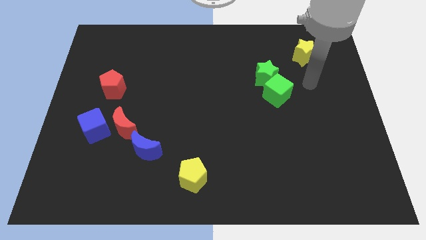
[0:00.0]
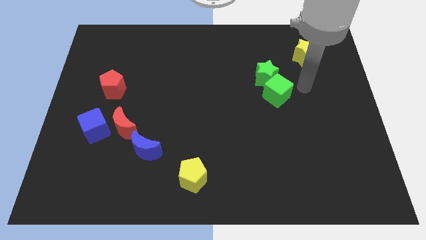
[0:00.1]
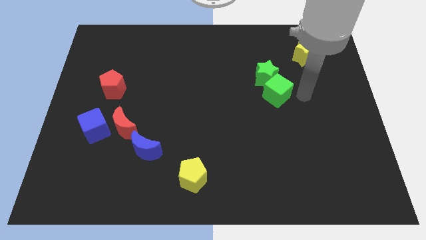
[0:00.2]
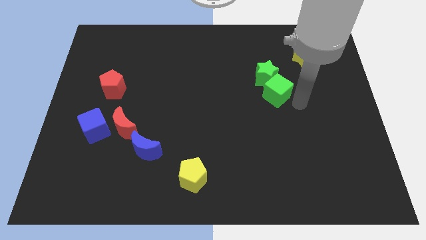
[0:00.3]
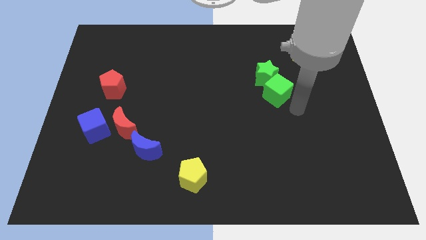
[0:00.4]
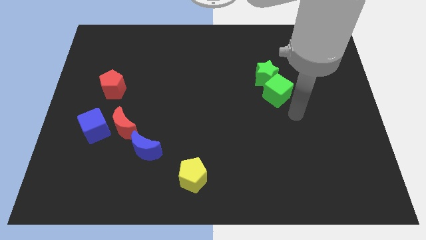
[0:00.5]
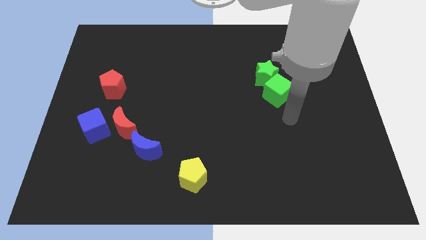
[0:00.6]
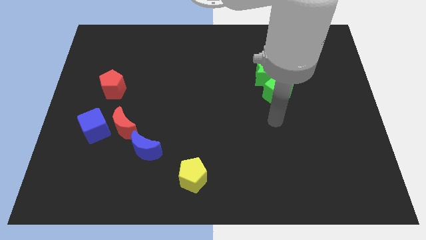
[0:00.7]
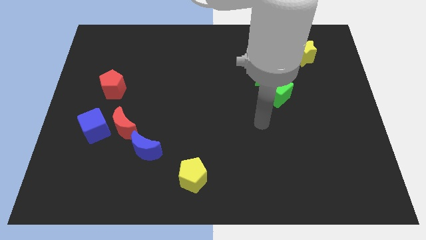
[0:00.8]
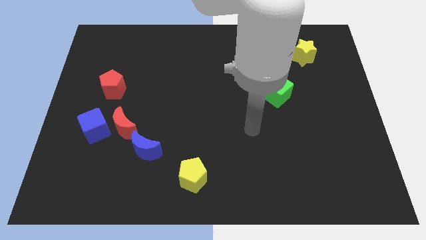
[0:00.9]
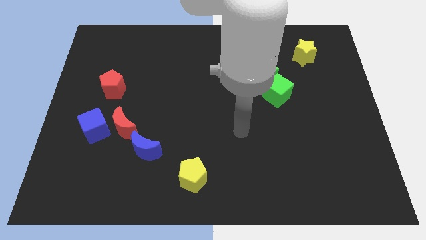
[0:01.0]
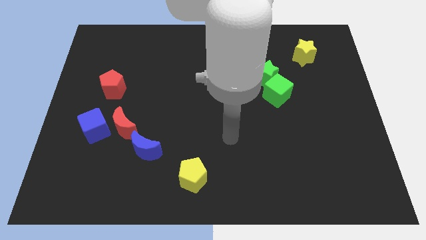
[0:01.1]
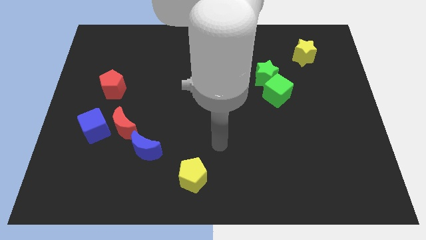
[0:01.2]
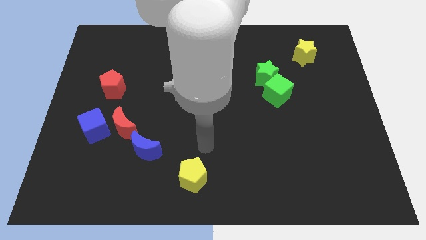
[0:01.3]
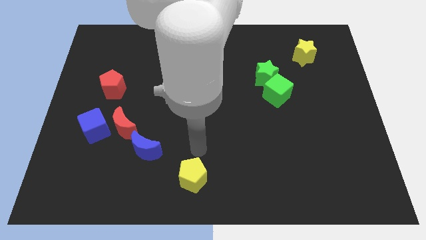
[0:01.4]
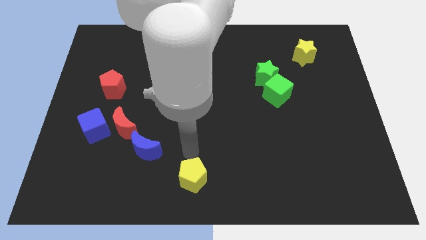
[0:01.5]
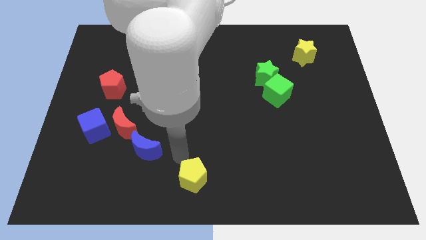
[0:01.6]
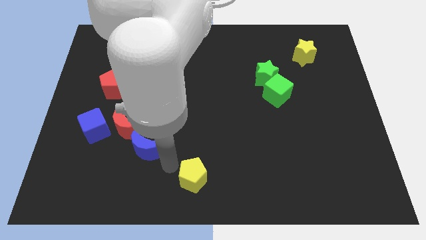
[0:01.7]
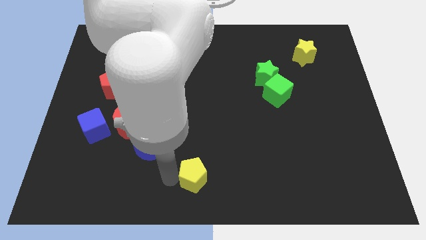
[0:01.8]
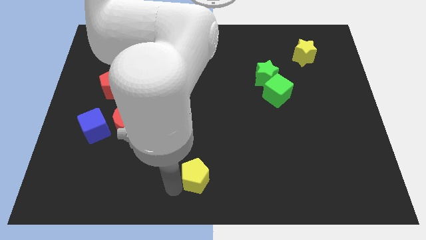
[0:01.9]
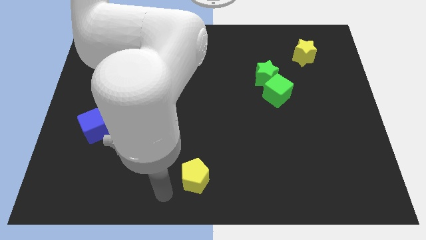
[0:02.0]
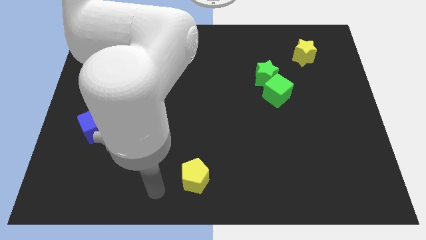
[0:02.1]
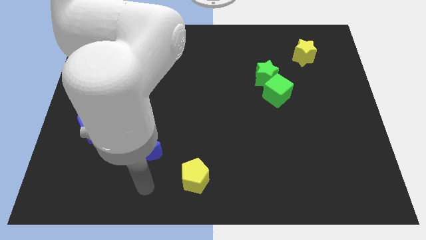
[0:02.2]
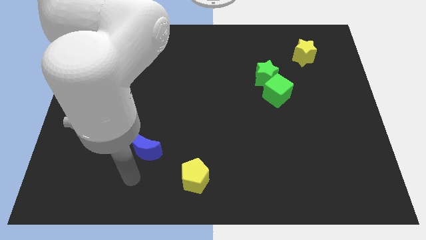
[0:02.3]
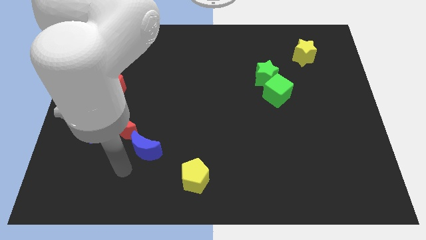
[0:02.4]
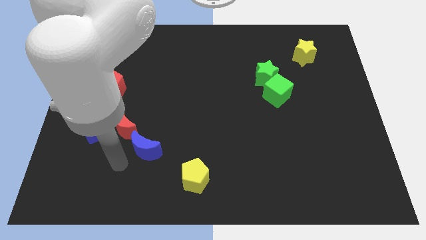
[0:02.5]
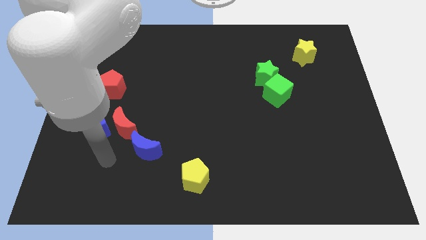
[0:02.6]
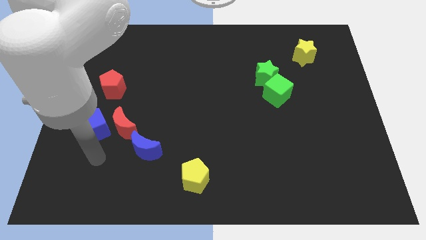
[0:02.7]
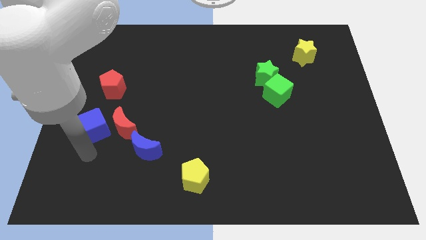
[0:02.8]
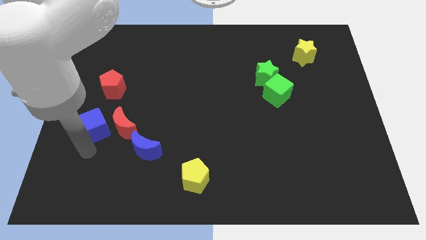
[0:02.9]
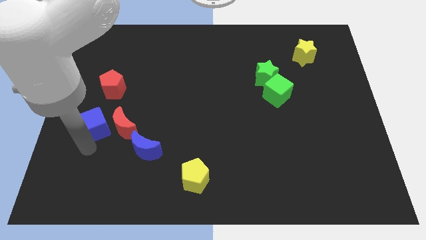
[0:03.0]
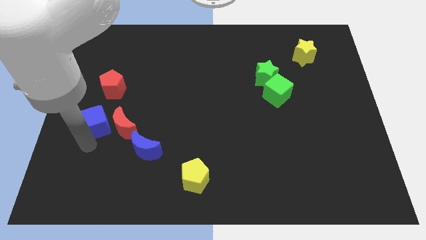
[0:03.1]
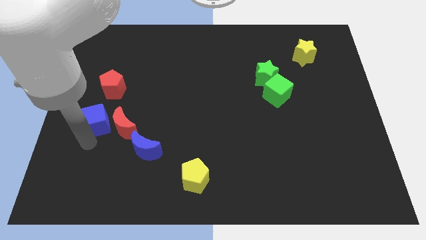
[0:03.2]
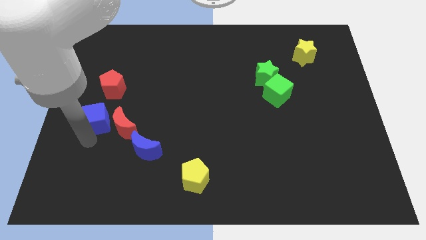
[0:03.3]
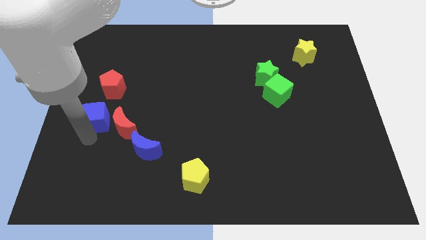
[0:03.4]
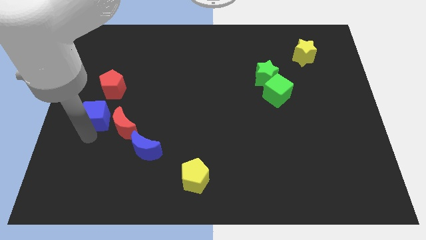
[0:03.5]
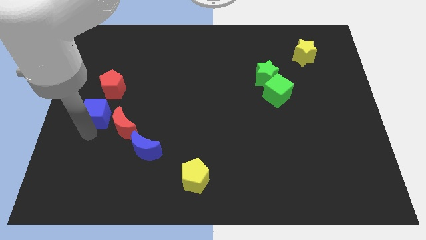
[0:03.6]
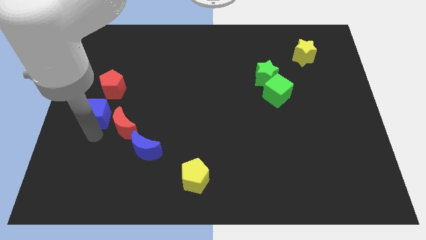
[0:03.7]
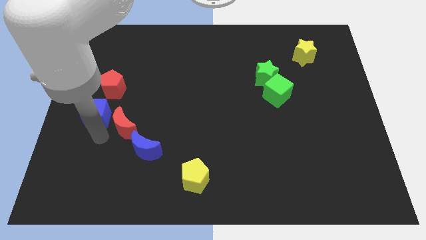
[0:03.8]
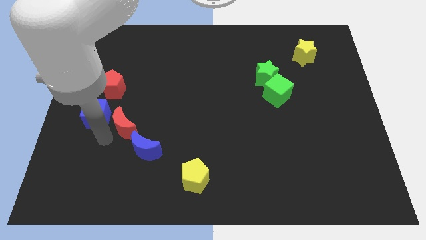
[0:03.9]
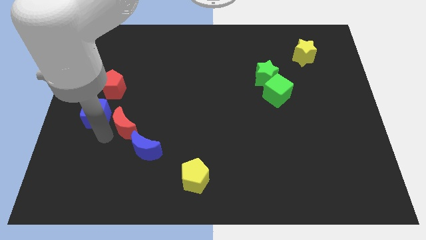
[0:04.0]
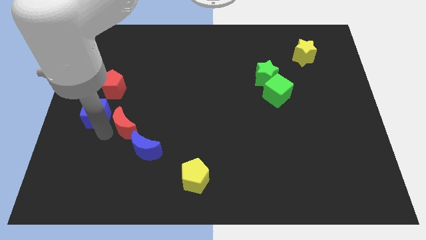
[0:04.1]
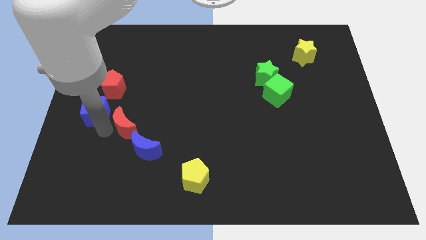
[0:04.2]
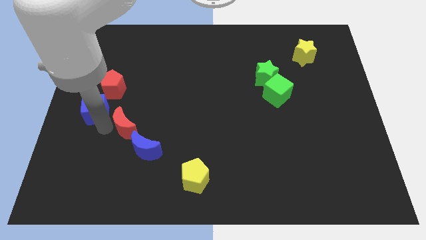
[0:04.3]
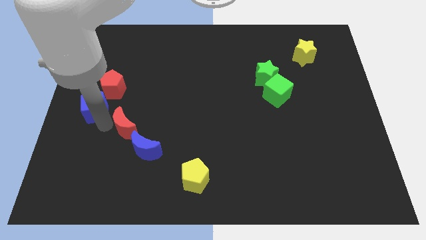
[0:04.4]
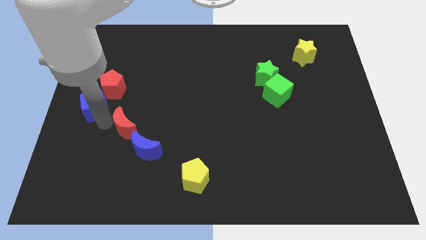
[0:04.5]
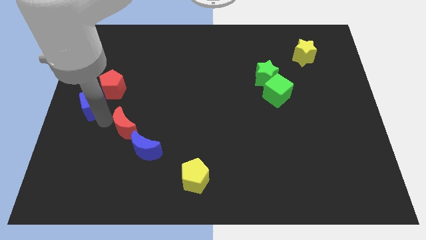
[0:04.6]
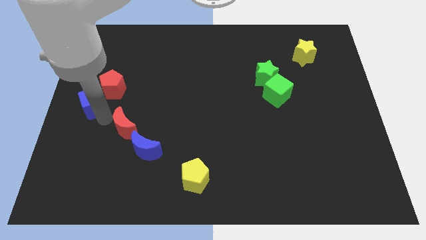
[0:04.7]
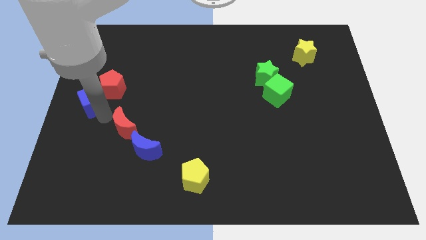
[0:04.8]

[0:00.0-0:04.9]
slightly move the blue cube up

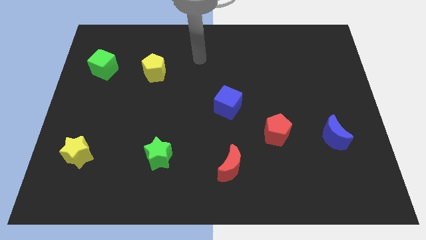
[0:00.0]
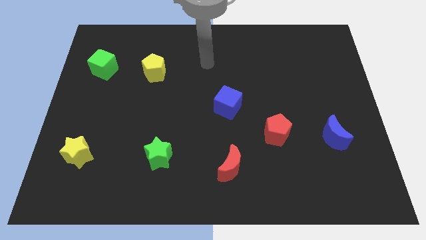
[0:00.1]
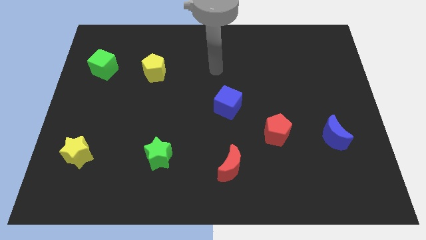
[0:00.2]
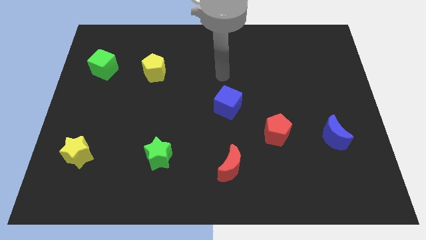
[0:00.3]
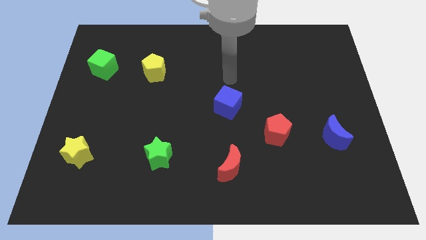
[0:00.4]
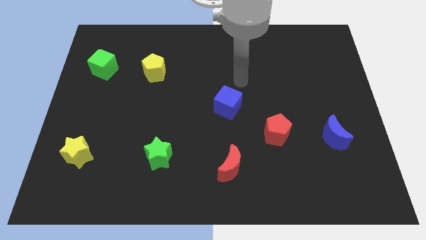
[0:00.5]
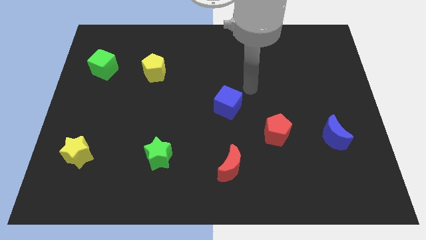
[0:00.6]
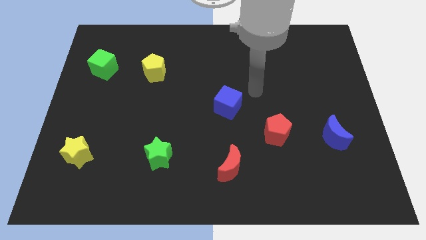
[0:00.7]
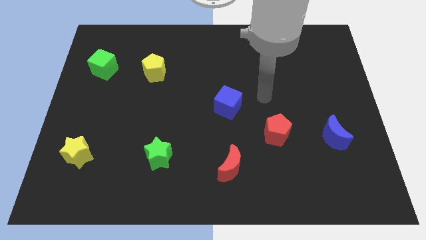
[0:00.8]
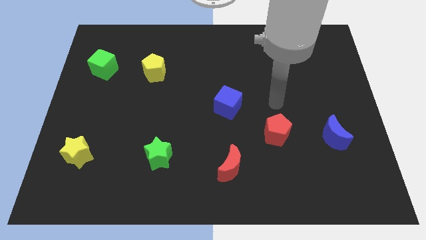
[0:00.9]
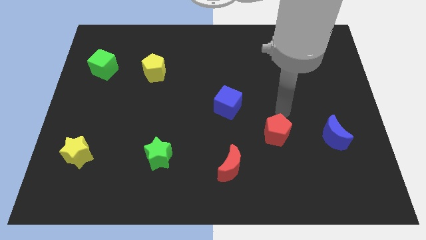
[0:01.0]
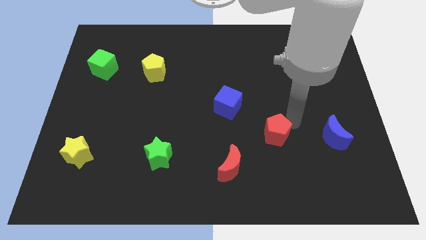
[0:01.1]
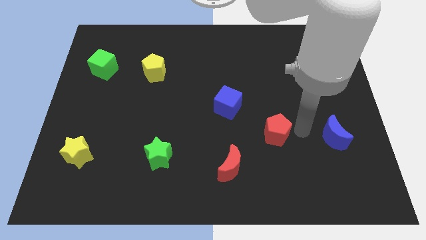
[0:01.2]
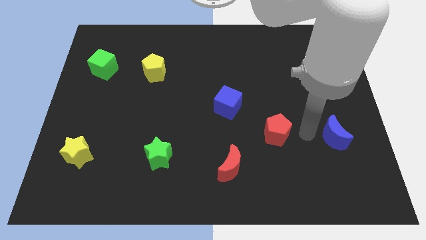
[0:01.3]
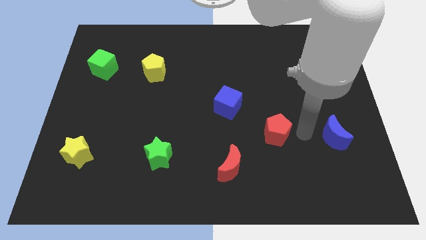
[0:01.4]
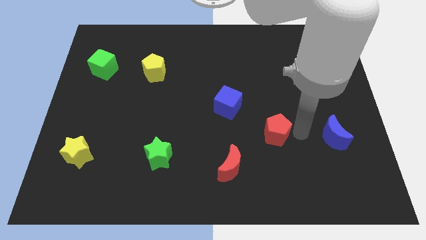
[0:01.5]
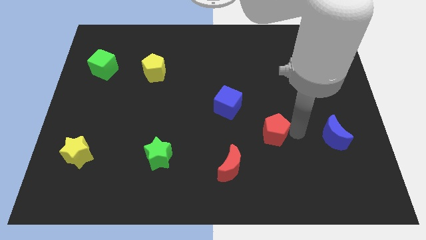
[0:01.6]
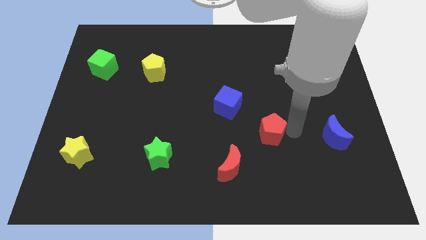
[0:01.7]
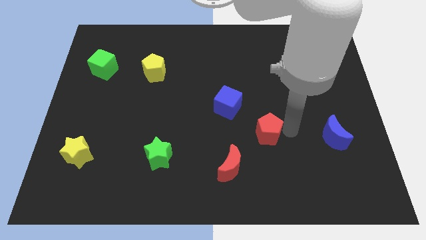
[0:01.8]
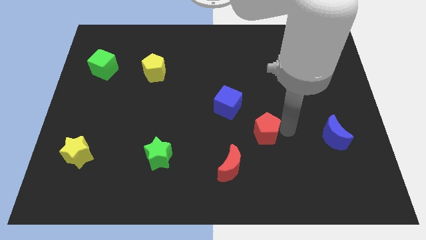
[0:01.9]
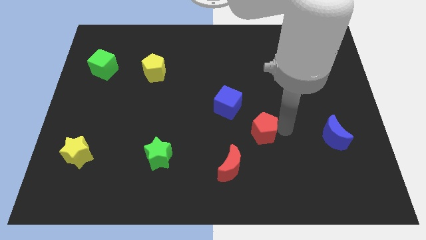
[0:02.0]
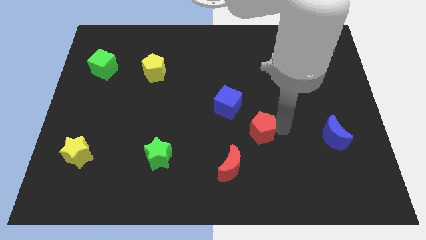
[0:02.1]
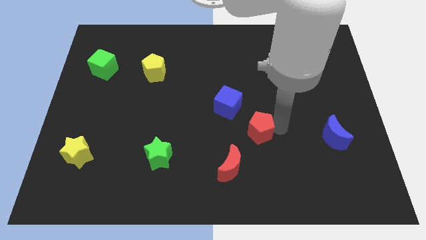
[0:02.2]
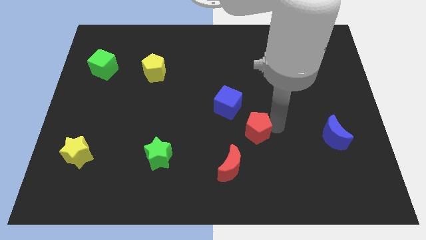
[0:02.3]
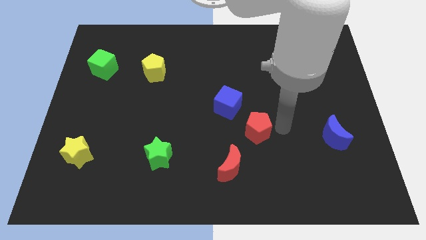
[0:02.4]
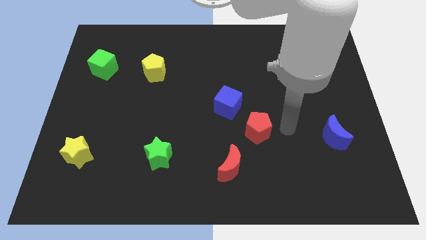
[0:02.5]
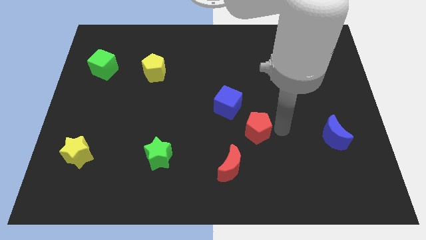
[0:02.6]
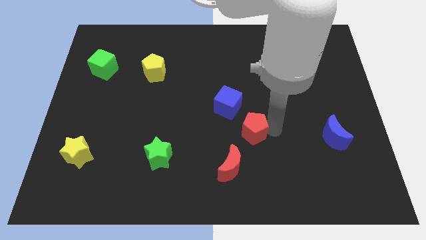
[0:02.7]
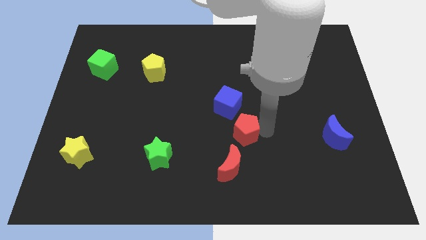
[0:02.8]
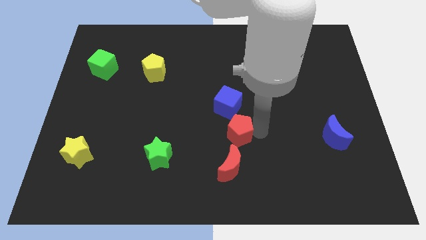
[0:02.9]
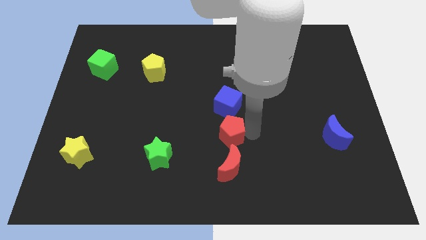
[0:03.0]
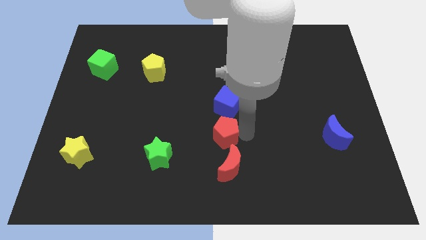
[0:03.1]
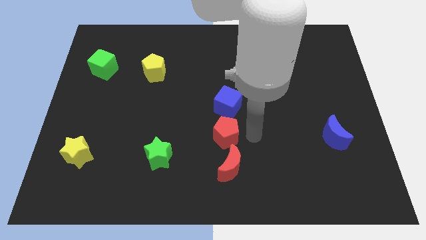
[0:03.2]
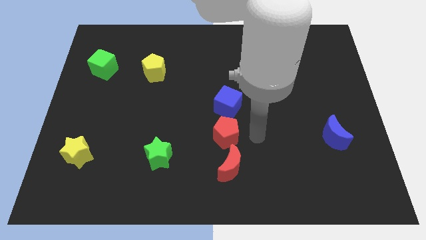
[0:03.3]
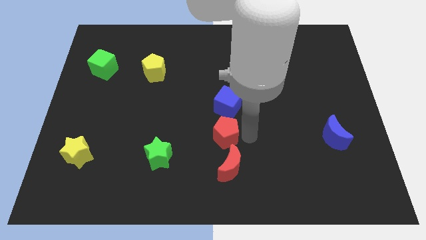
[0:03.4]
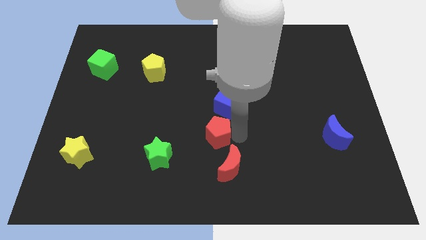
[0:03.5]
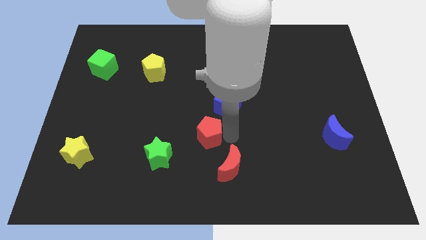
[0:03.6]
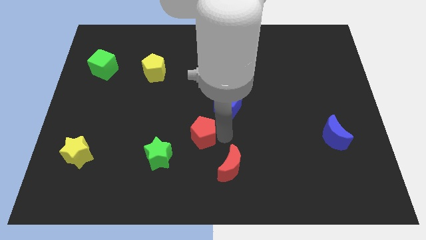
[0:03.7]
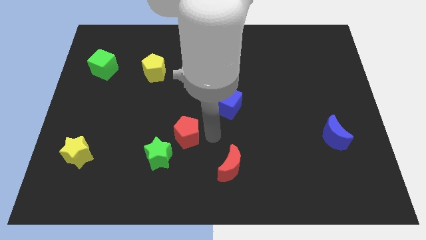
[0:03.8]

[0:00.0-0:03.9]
push the red pentagon left
